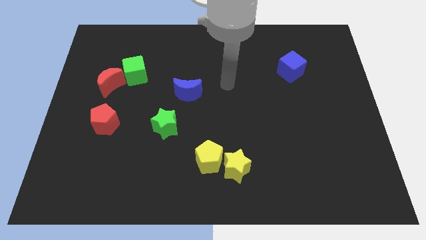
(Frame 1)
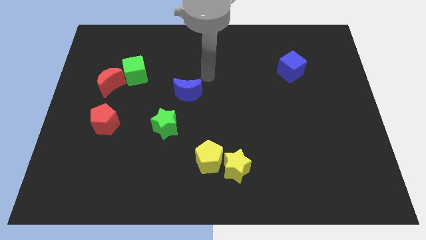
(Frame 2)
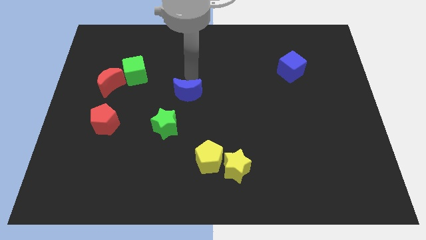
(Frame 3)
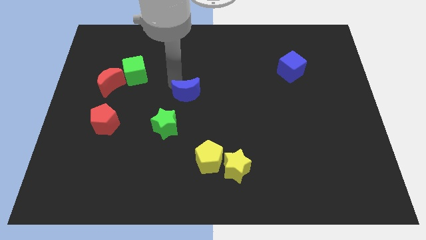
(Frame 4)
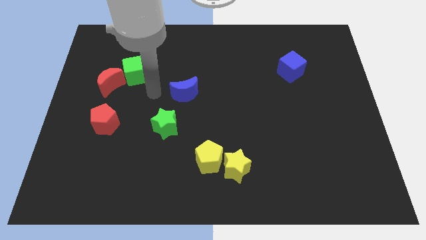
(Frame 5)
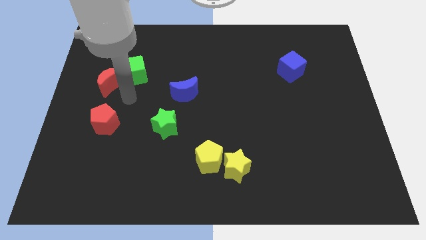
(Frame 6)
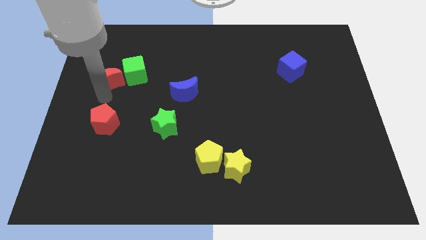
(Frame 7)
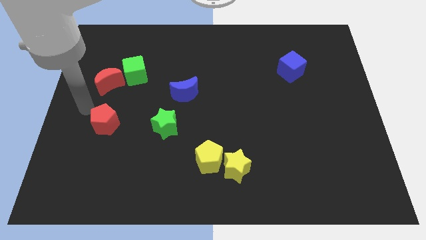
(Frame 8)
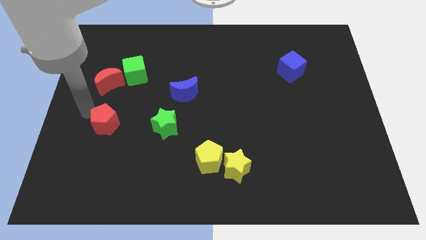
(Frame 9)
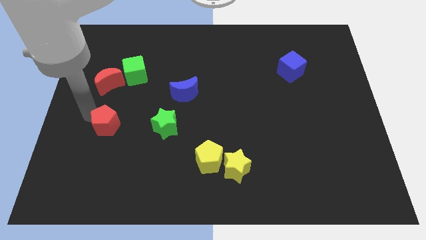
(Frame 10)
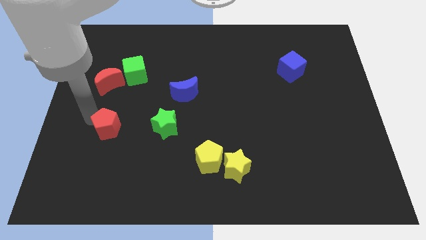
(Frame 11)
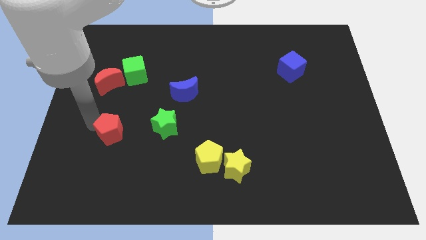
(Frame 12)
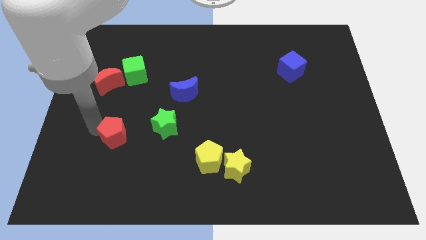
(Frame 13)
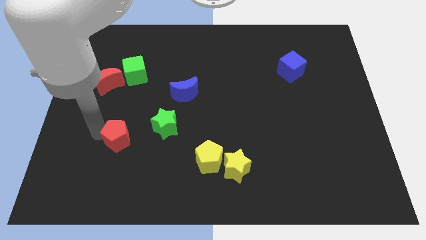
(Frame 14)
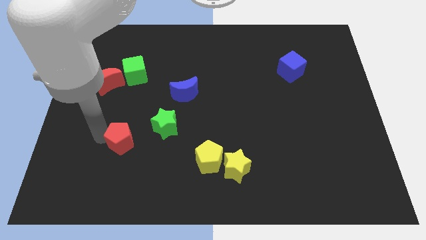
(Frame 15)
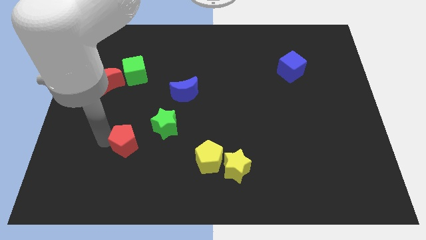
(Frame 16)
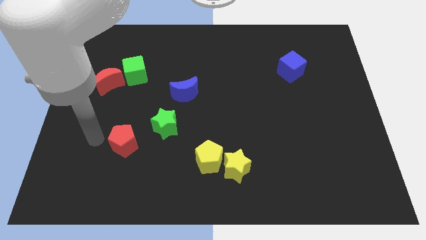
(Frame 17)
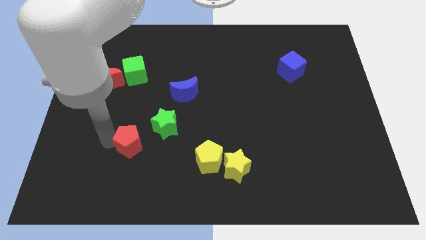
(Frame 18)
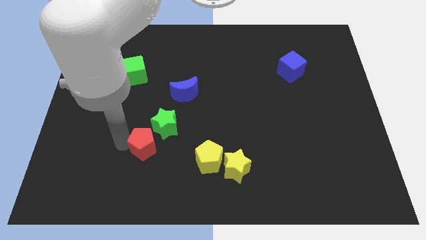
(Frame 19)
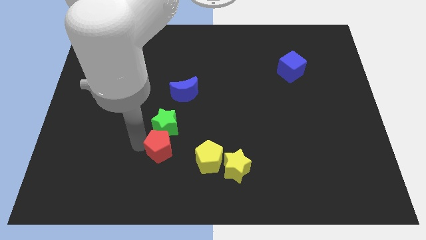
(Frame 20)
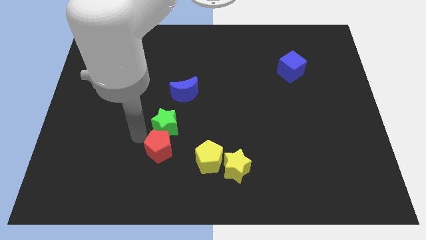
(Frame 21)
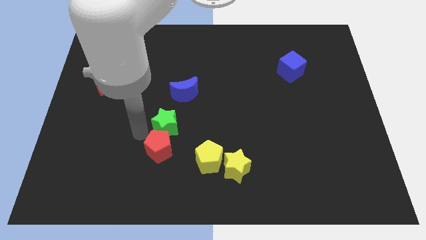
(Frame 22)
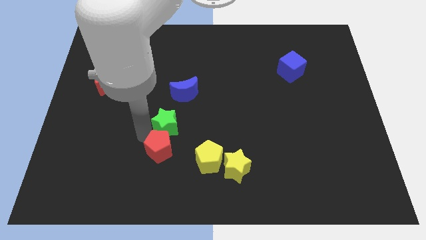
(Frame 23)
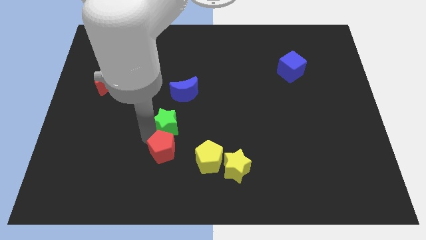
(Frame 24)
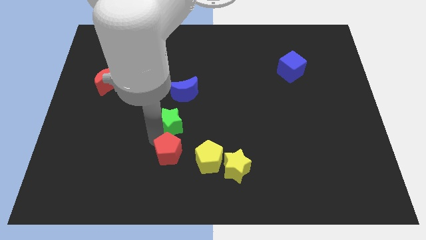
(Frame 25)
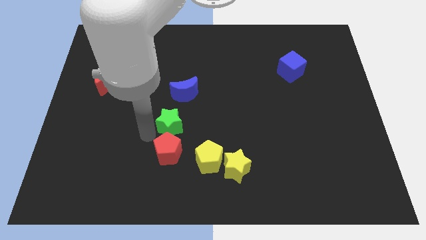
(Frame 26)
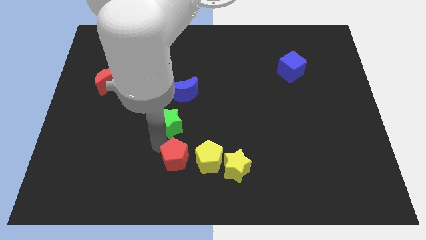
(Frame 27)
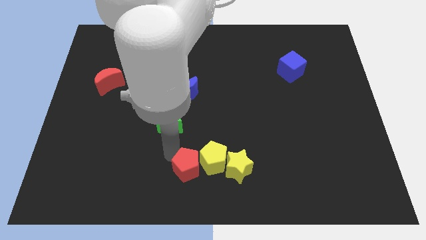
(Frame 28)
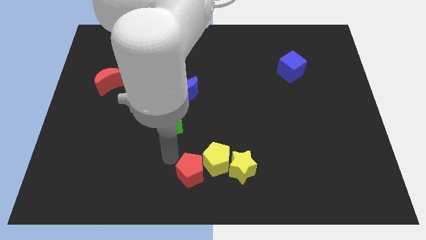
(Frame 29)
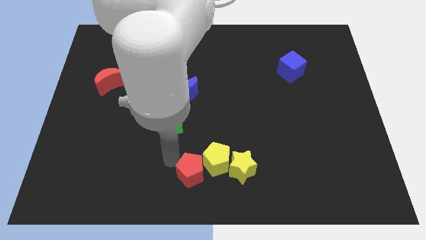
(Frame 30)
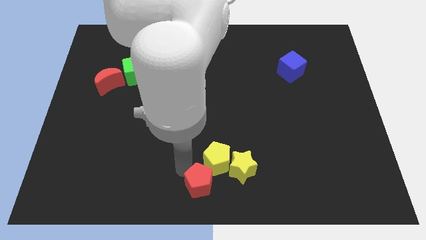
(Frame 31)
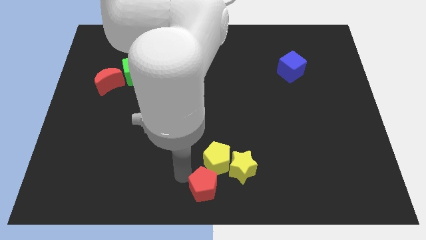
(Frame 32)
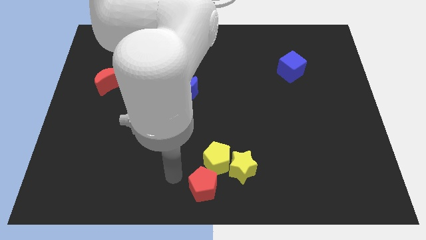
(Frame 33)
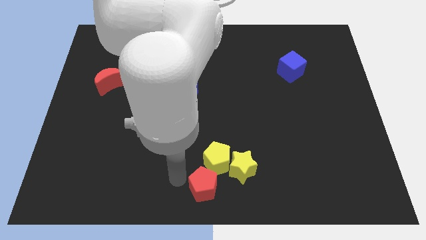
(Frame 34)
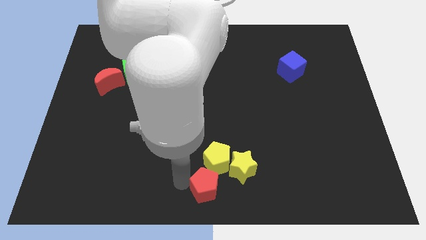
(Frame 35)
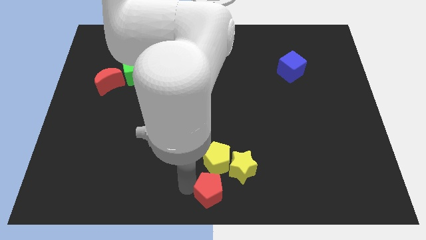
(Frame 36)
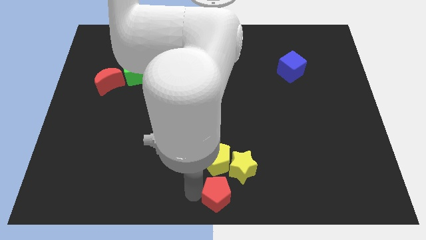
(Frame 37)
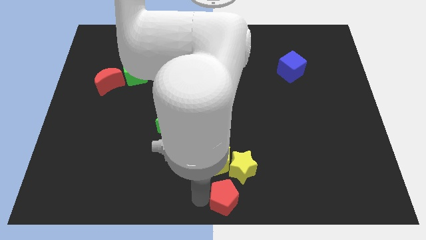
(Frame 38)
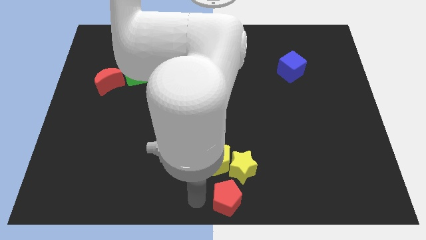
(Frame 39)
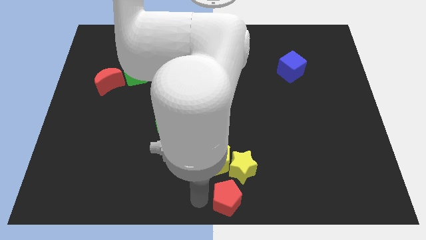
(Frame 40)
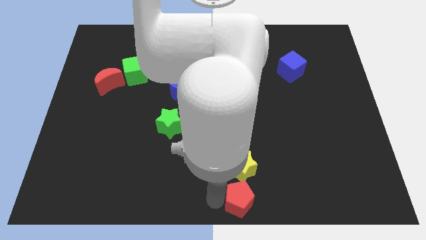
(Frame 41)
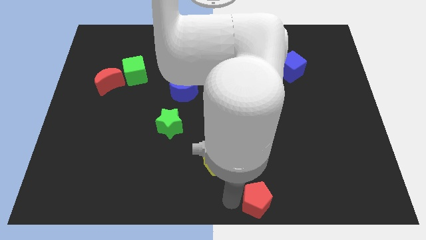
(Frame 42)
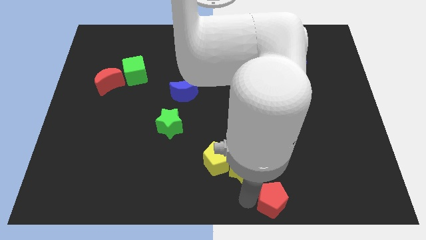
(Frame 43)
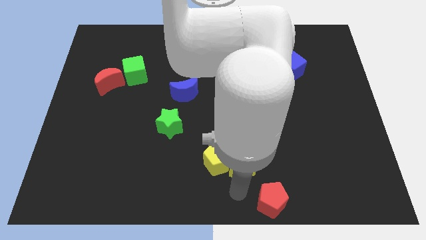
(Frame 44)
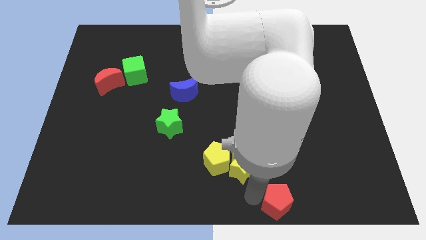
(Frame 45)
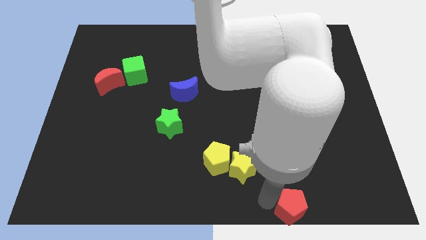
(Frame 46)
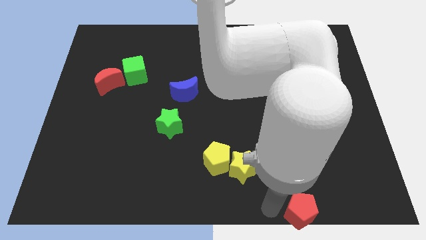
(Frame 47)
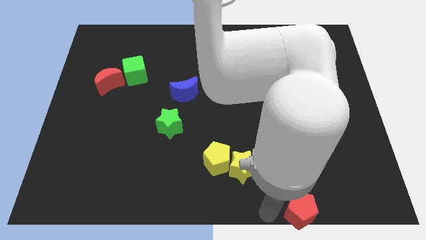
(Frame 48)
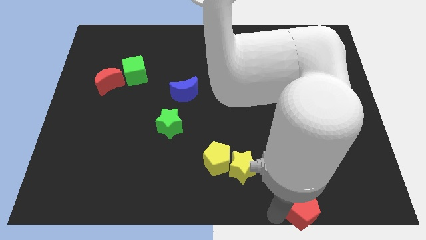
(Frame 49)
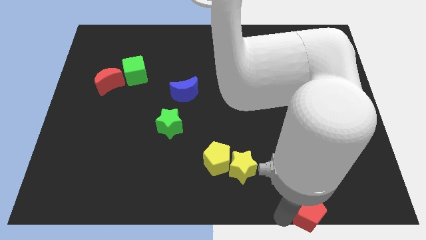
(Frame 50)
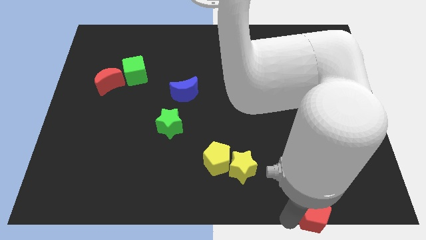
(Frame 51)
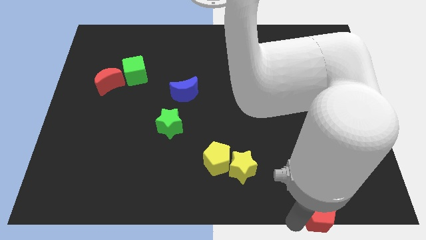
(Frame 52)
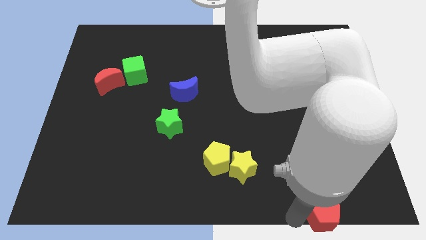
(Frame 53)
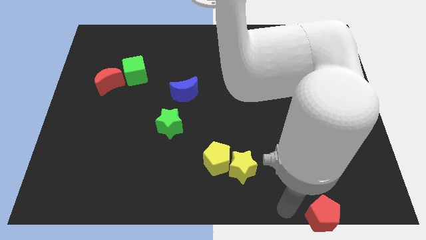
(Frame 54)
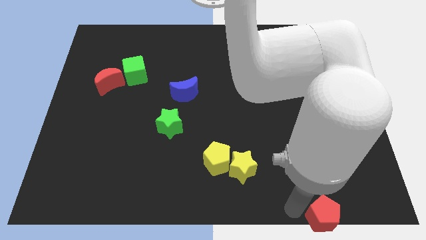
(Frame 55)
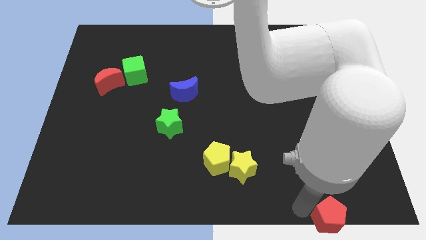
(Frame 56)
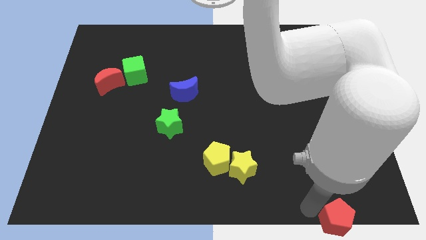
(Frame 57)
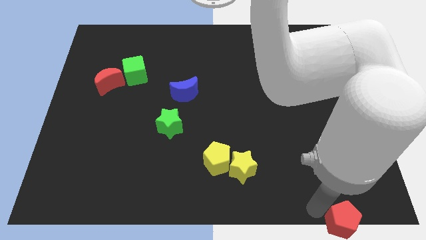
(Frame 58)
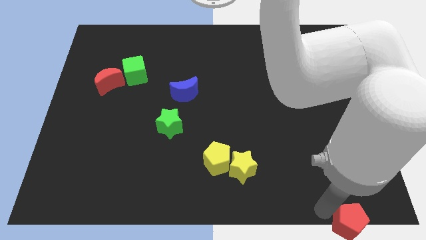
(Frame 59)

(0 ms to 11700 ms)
put the red pentagon to the bottom right of the board
